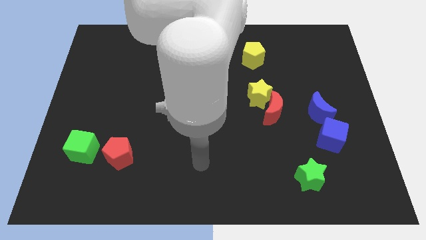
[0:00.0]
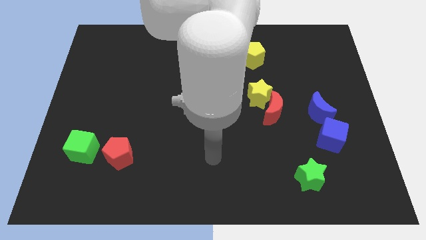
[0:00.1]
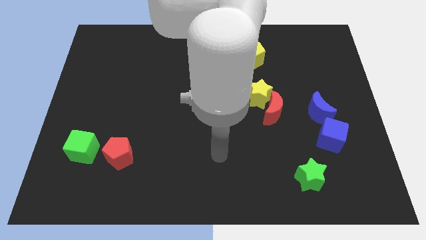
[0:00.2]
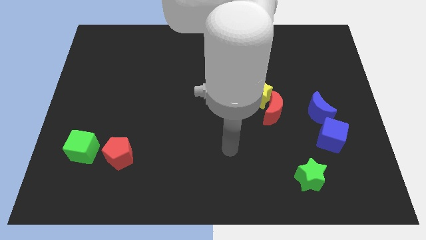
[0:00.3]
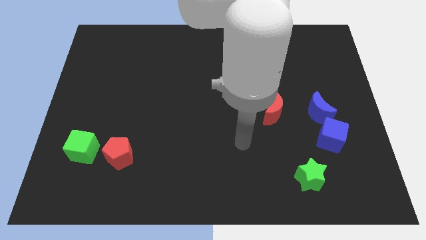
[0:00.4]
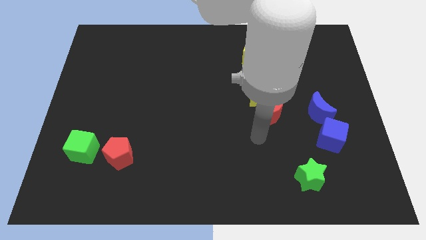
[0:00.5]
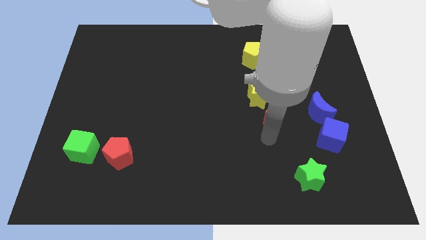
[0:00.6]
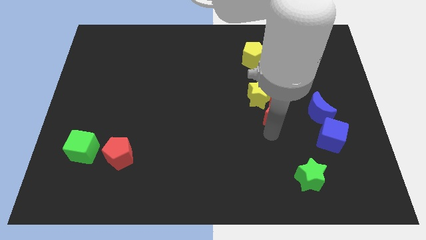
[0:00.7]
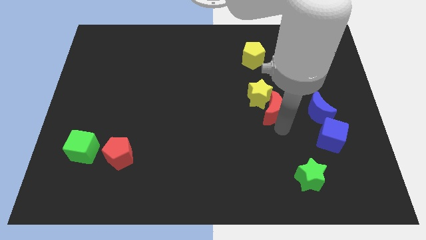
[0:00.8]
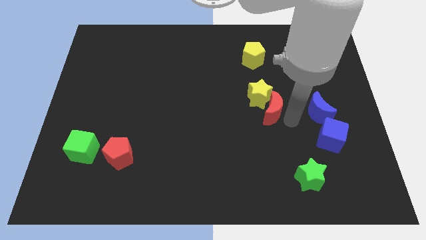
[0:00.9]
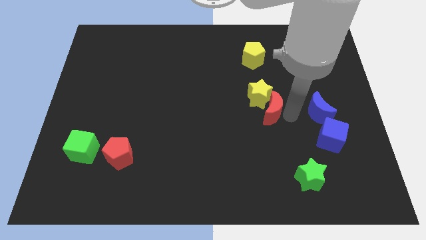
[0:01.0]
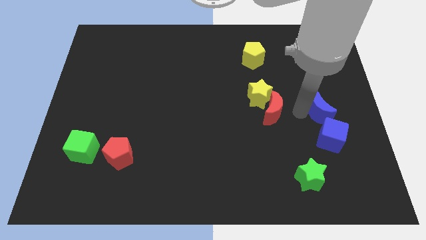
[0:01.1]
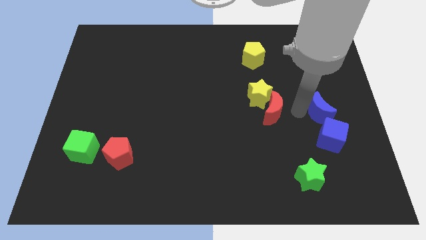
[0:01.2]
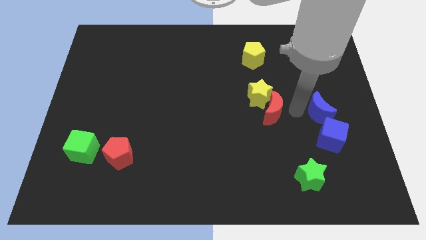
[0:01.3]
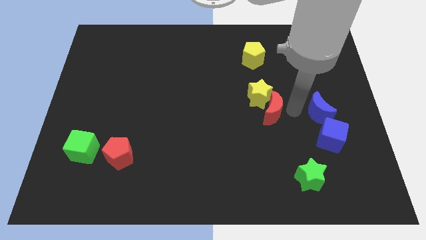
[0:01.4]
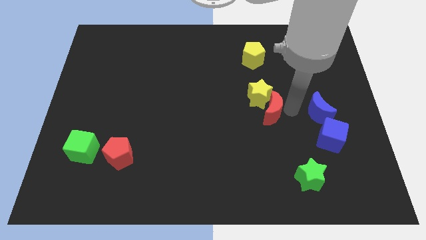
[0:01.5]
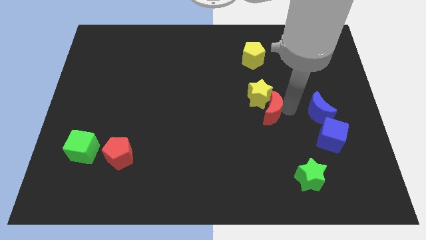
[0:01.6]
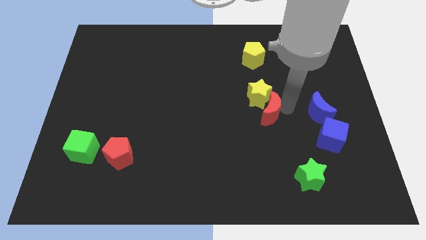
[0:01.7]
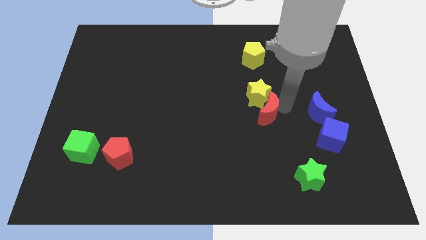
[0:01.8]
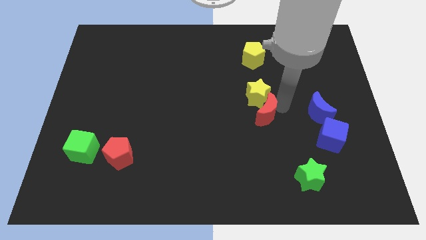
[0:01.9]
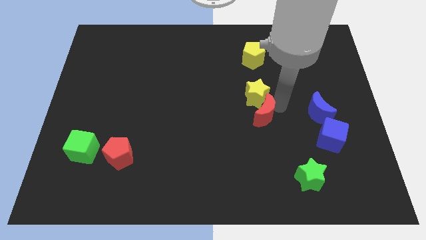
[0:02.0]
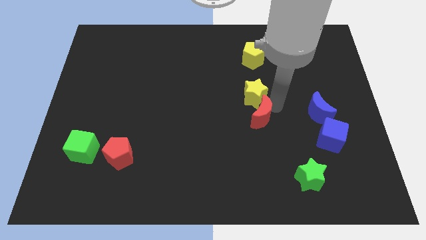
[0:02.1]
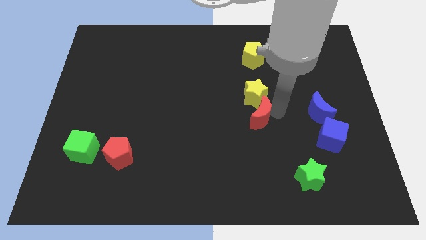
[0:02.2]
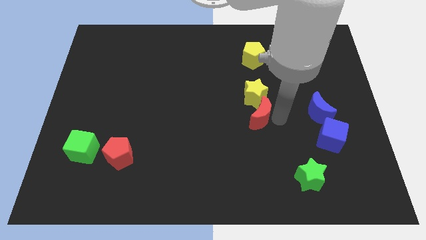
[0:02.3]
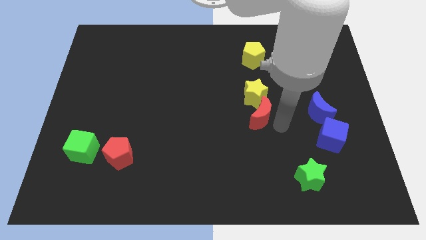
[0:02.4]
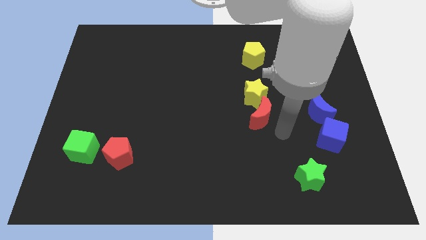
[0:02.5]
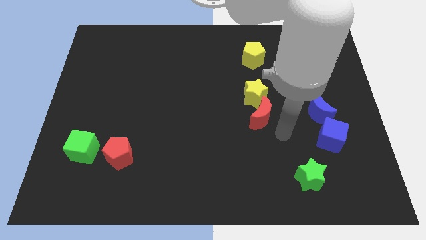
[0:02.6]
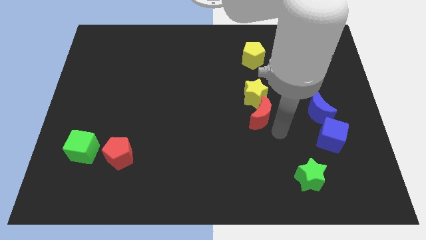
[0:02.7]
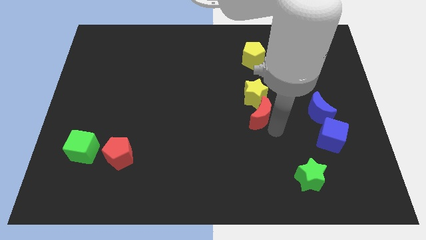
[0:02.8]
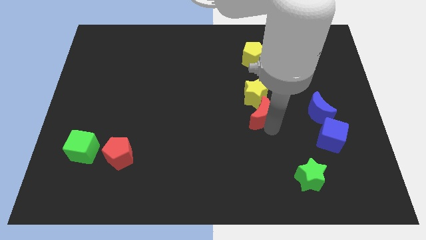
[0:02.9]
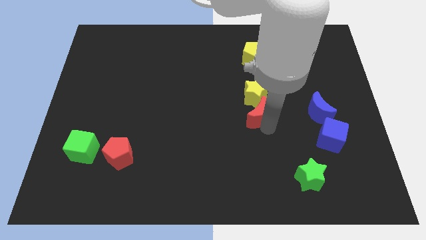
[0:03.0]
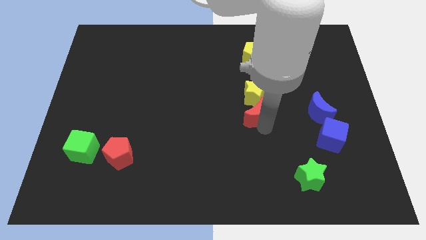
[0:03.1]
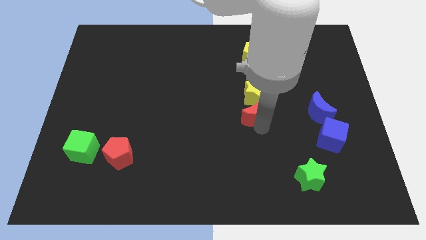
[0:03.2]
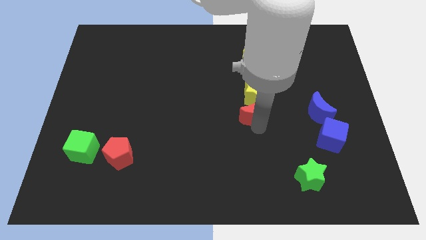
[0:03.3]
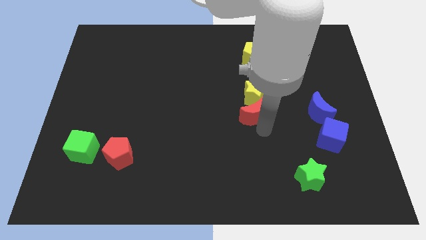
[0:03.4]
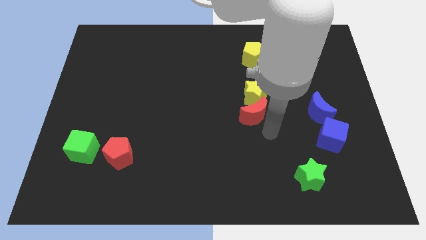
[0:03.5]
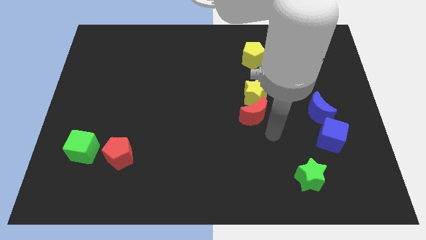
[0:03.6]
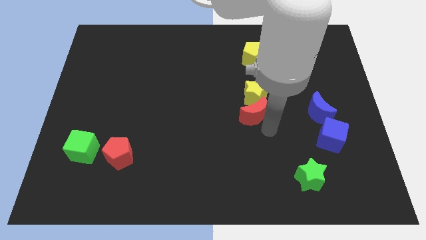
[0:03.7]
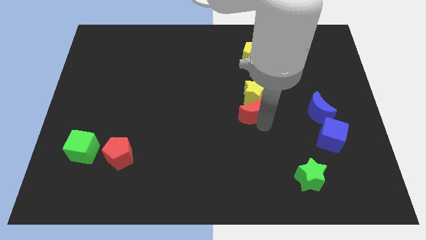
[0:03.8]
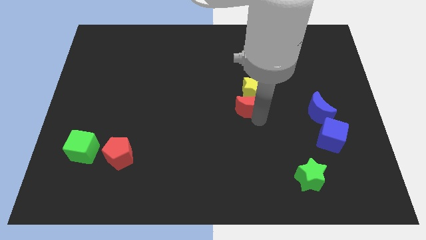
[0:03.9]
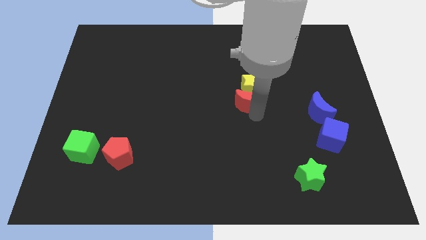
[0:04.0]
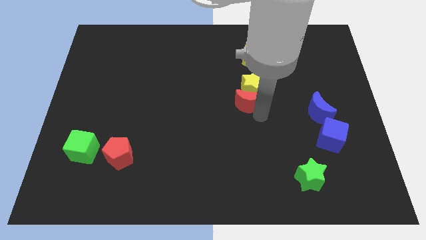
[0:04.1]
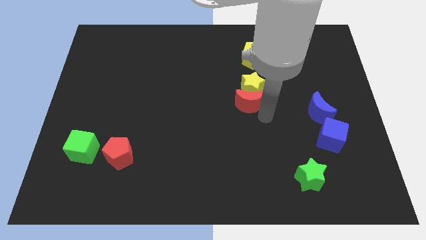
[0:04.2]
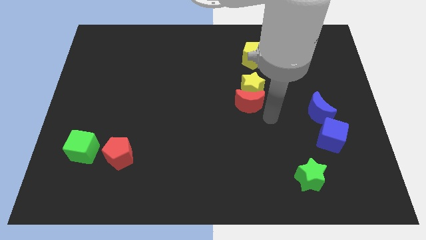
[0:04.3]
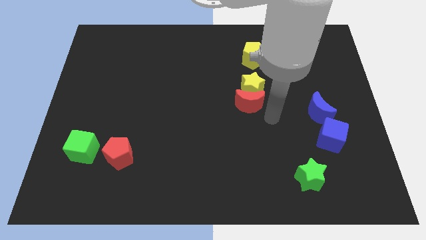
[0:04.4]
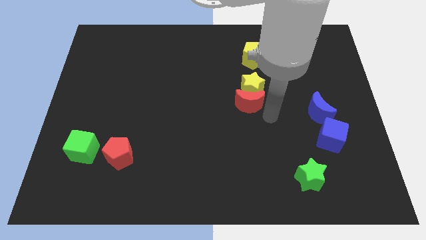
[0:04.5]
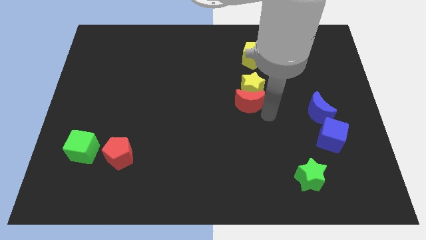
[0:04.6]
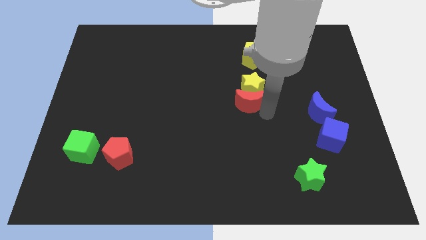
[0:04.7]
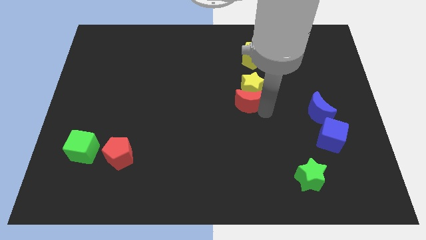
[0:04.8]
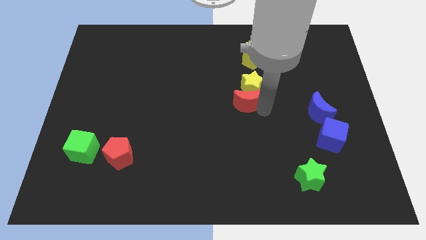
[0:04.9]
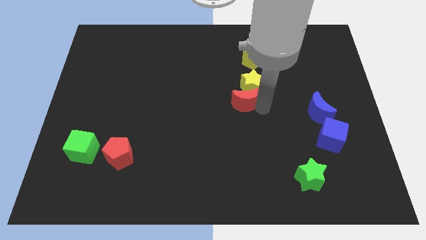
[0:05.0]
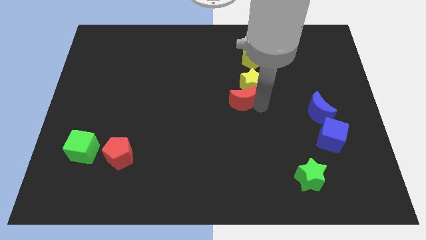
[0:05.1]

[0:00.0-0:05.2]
push the red moon somewhat up and to the left diagonally

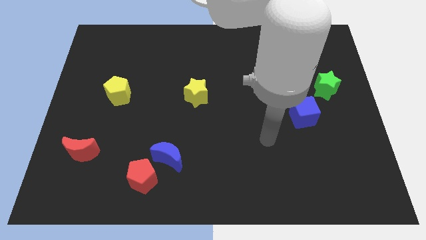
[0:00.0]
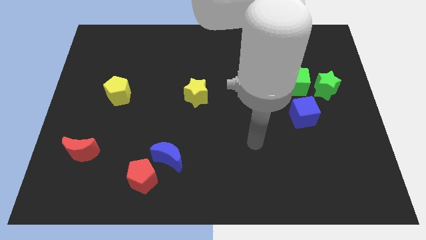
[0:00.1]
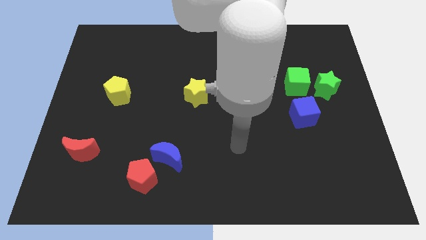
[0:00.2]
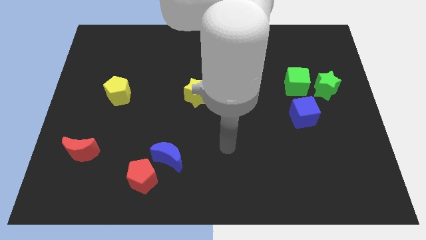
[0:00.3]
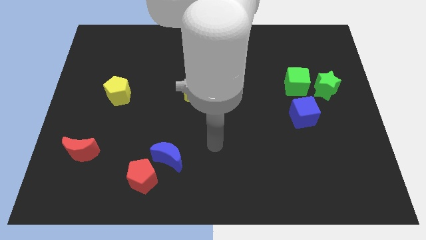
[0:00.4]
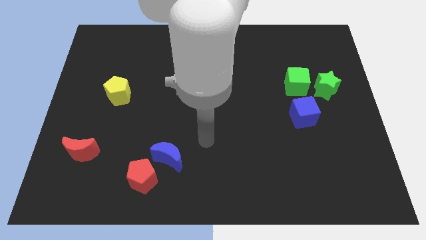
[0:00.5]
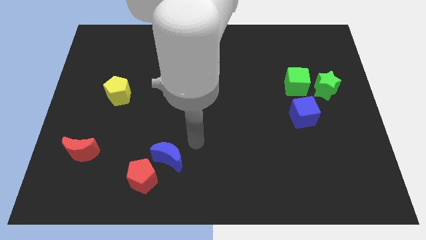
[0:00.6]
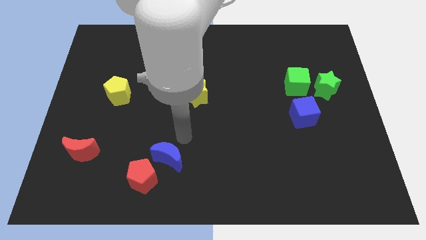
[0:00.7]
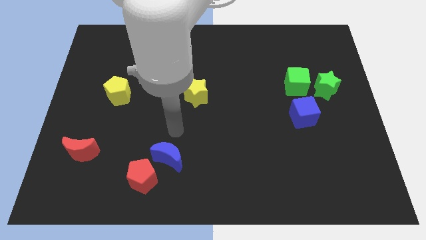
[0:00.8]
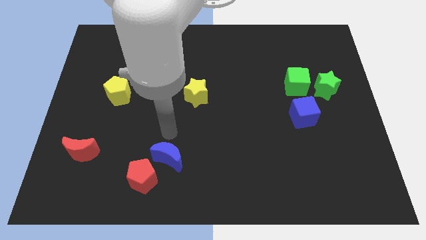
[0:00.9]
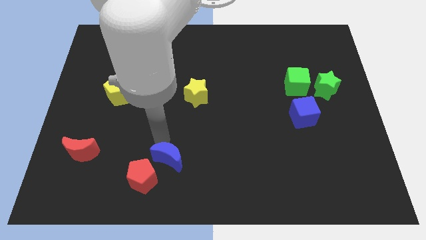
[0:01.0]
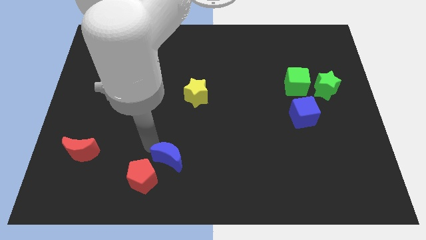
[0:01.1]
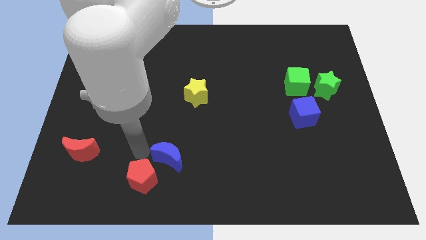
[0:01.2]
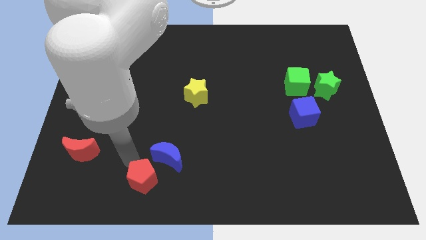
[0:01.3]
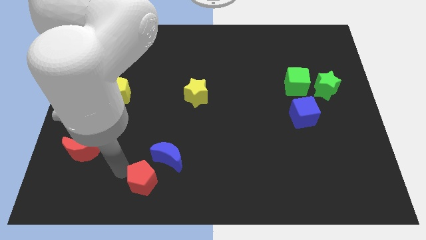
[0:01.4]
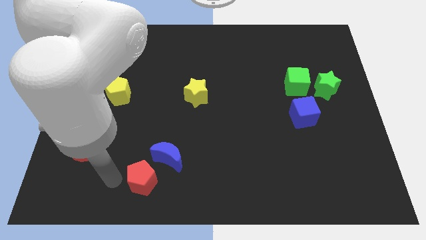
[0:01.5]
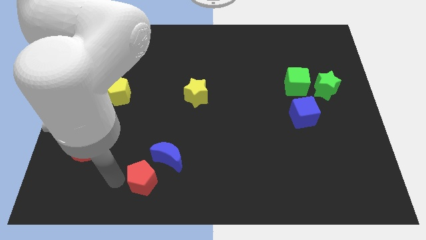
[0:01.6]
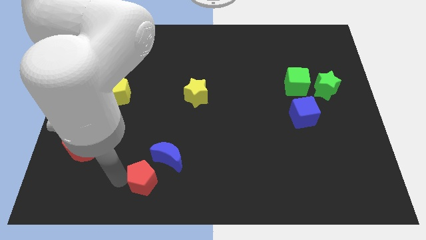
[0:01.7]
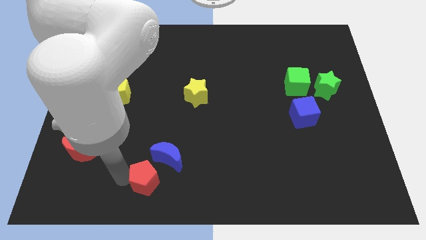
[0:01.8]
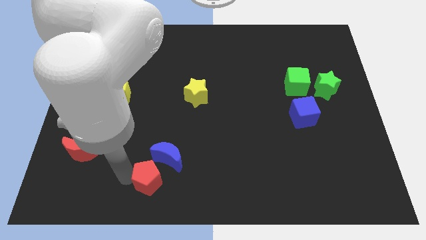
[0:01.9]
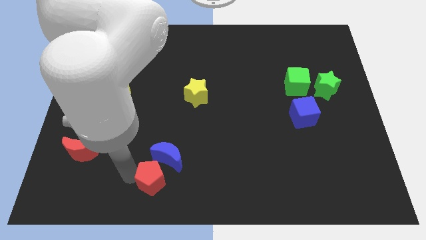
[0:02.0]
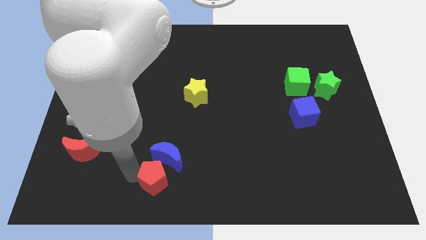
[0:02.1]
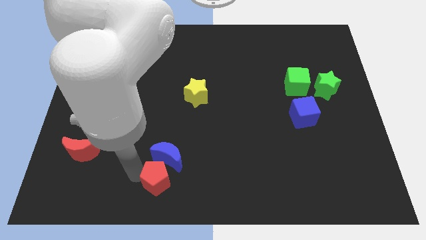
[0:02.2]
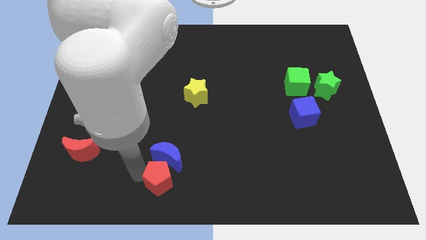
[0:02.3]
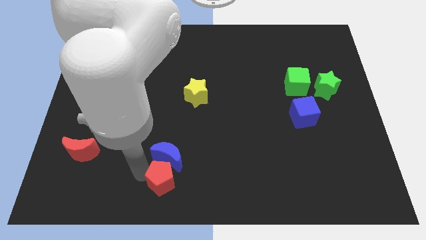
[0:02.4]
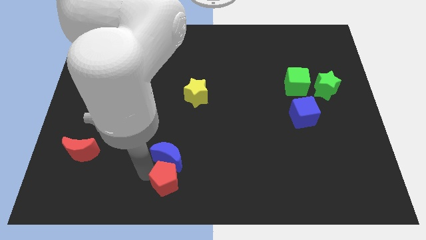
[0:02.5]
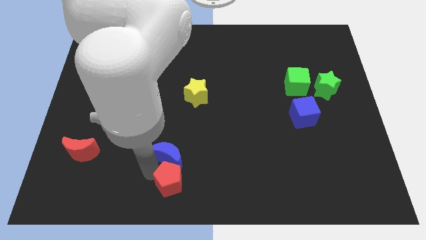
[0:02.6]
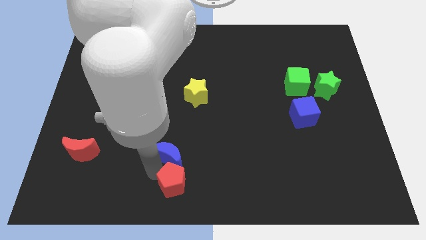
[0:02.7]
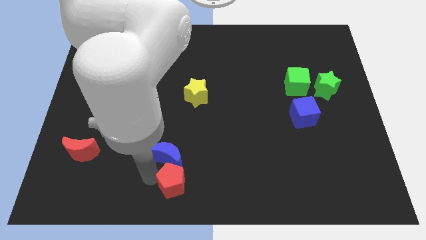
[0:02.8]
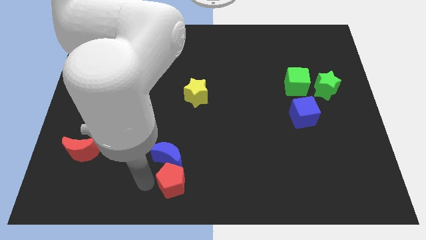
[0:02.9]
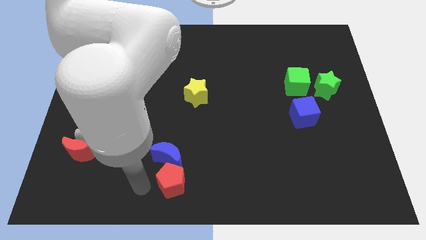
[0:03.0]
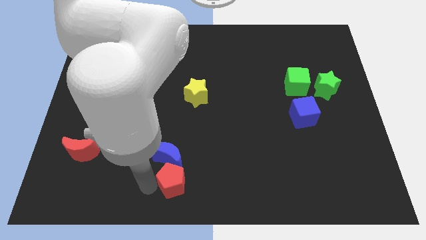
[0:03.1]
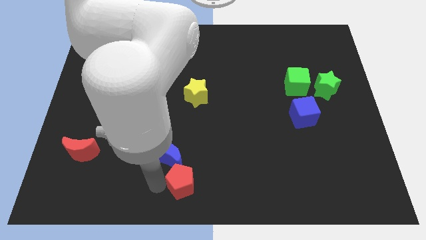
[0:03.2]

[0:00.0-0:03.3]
slide the red pentagon a little bit right
